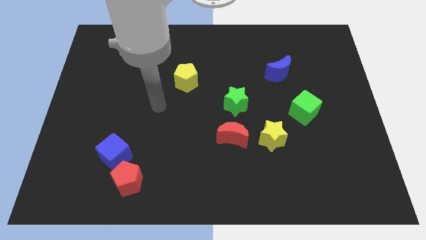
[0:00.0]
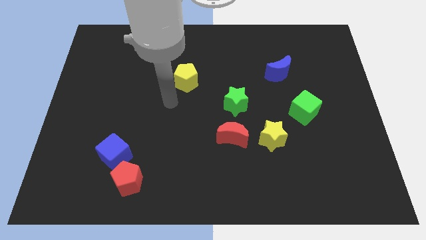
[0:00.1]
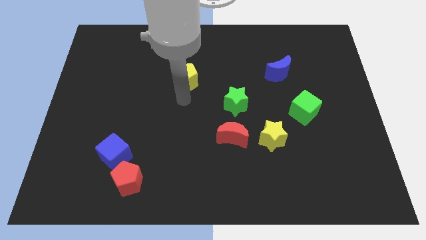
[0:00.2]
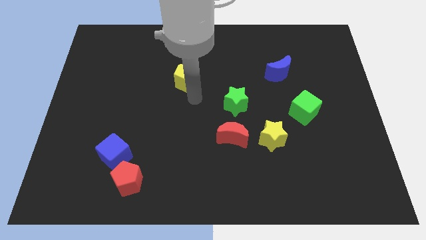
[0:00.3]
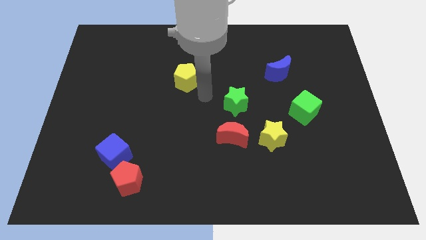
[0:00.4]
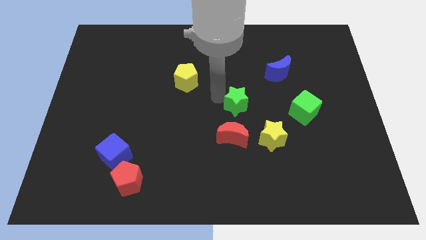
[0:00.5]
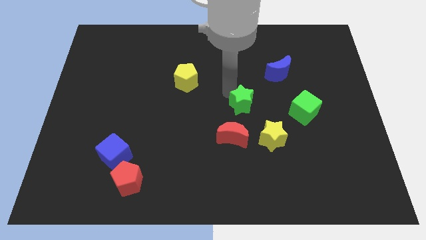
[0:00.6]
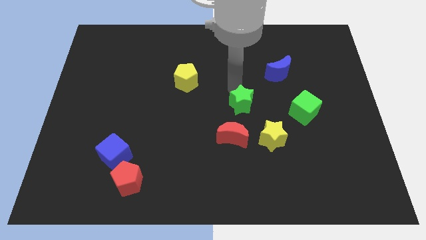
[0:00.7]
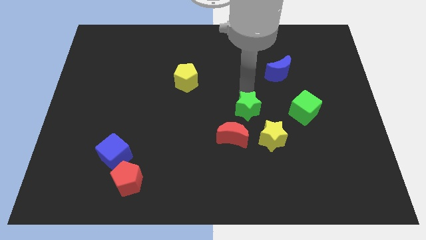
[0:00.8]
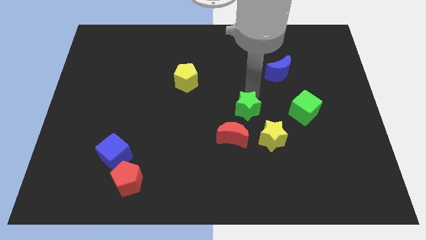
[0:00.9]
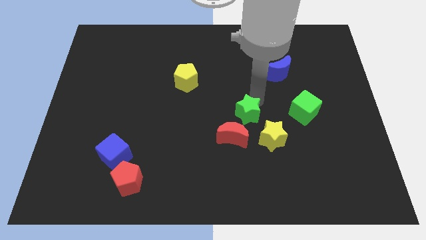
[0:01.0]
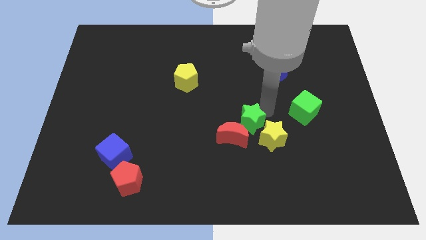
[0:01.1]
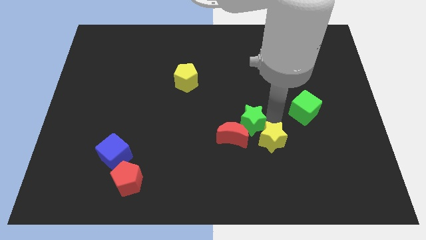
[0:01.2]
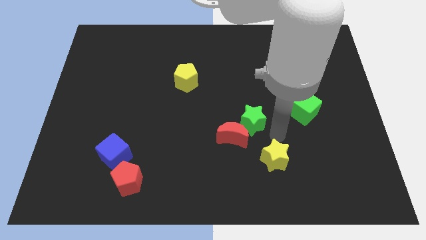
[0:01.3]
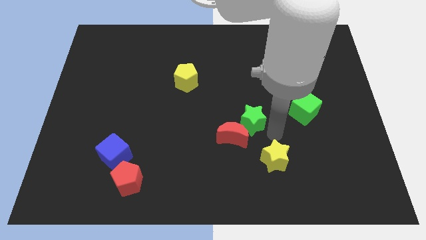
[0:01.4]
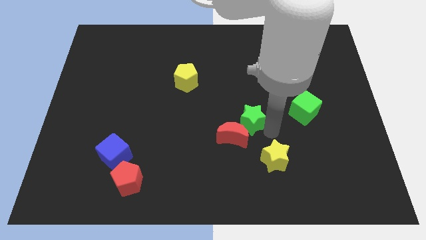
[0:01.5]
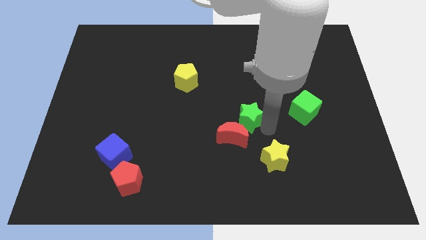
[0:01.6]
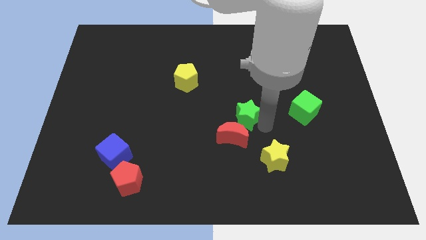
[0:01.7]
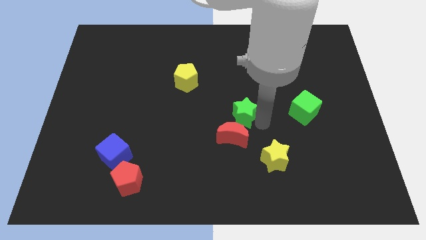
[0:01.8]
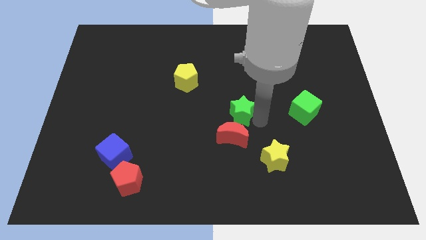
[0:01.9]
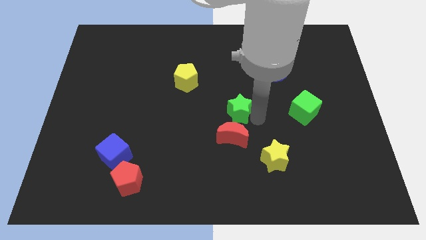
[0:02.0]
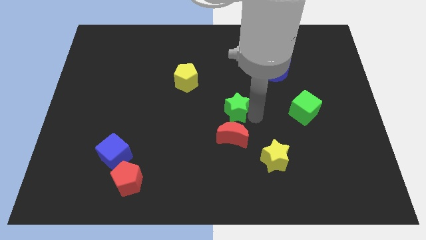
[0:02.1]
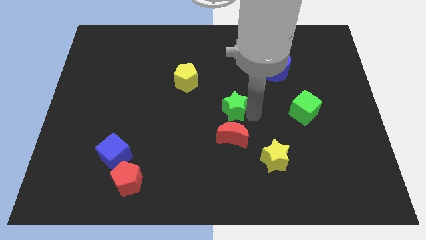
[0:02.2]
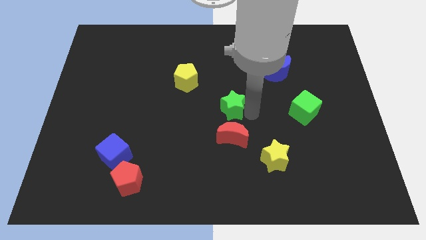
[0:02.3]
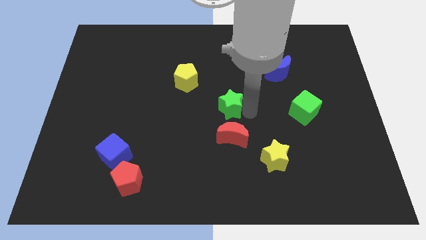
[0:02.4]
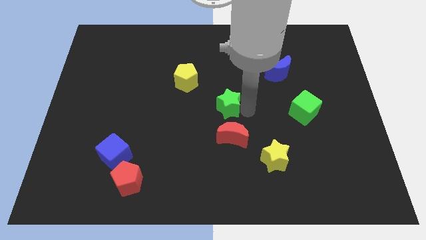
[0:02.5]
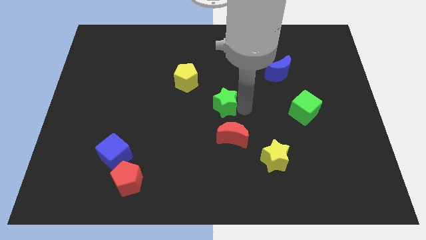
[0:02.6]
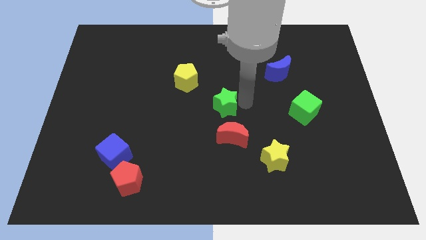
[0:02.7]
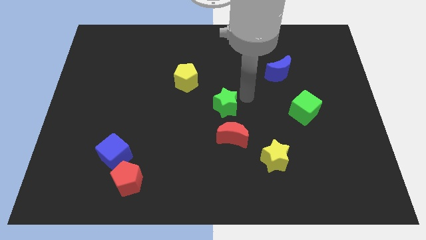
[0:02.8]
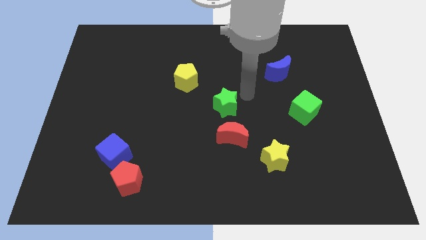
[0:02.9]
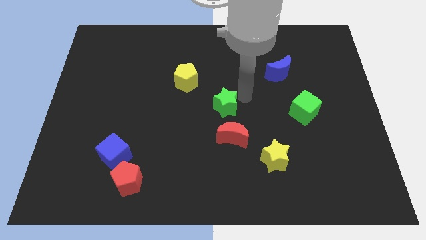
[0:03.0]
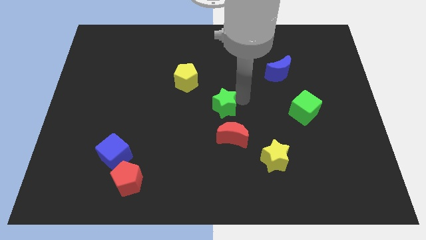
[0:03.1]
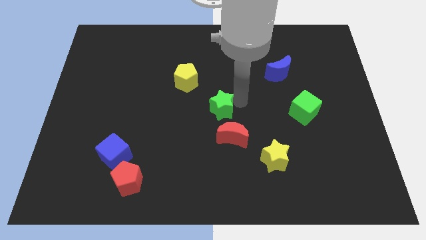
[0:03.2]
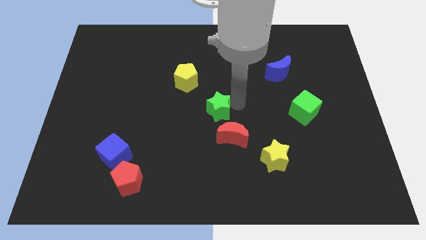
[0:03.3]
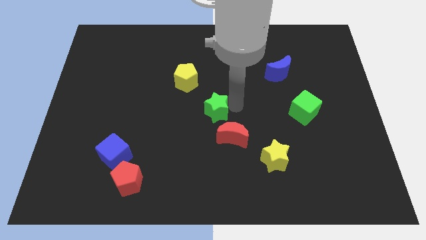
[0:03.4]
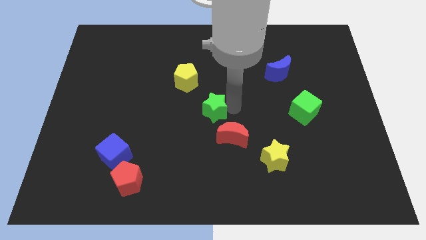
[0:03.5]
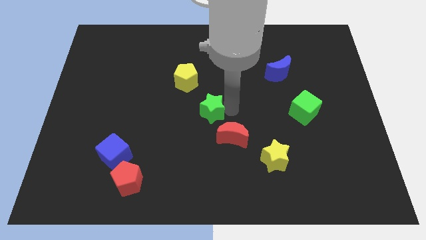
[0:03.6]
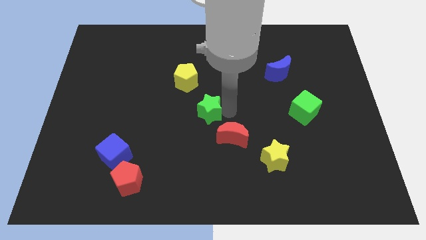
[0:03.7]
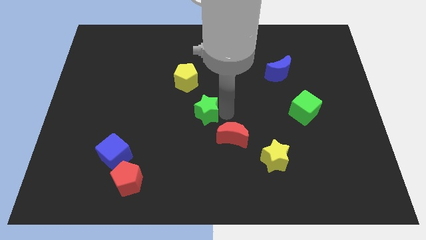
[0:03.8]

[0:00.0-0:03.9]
push the green star downwards and to the left diagonally slightly

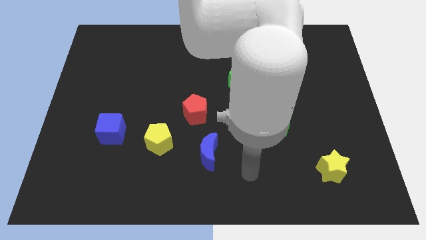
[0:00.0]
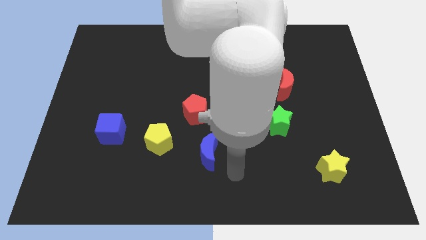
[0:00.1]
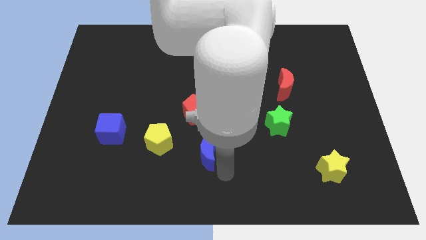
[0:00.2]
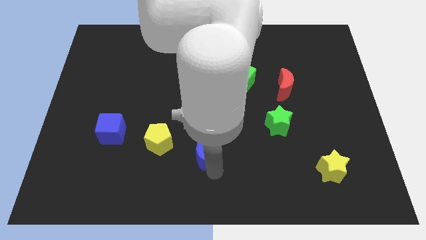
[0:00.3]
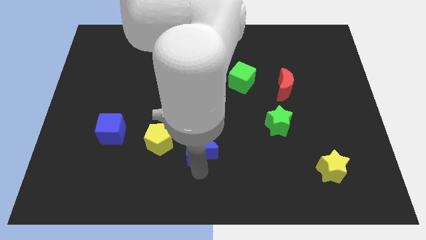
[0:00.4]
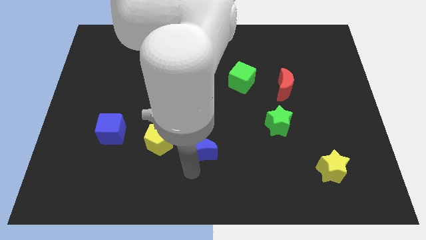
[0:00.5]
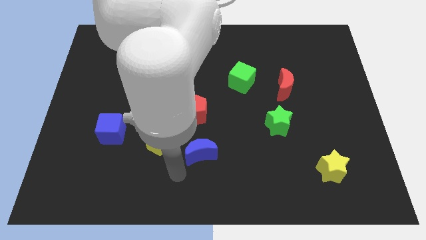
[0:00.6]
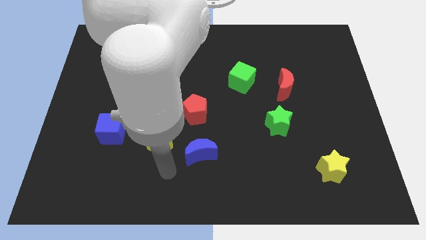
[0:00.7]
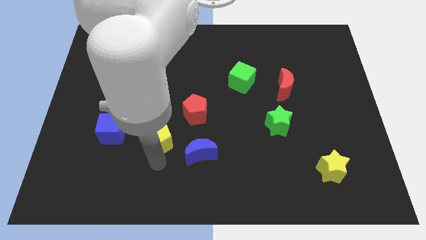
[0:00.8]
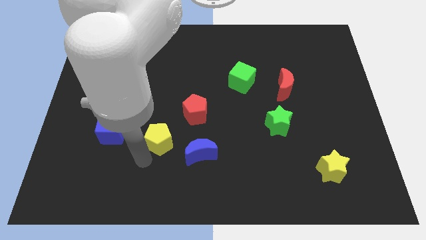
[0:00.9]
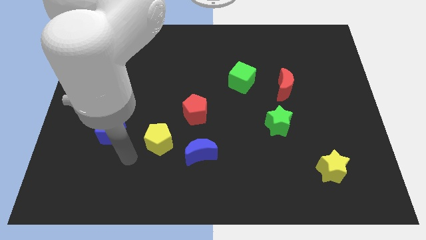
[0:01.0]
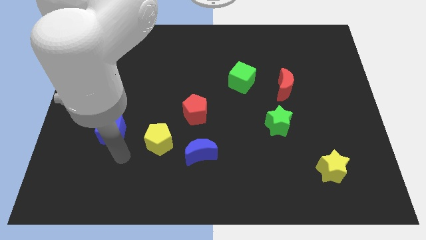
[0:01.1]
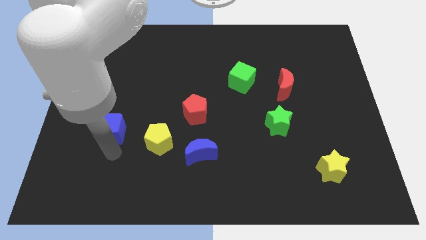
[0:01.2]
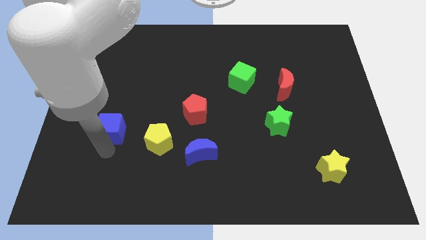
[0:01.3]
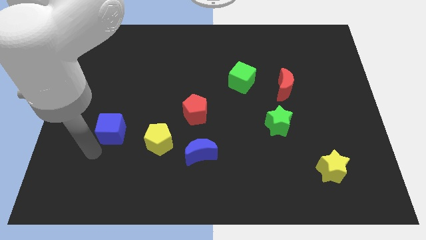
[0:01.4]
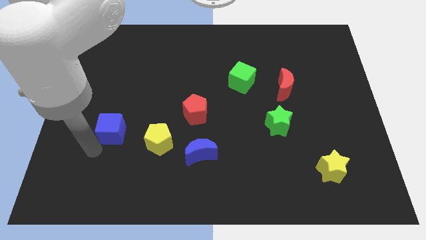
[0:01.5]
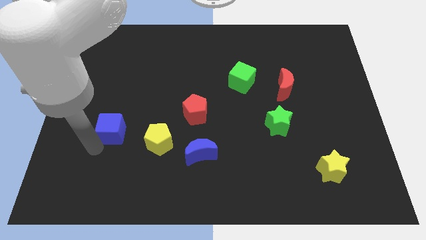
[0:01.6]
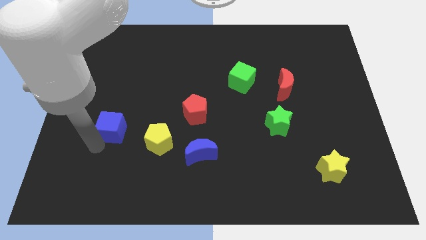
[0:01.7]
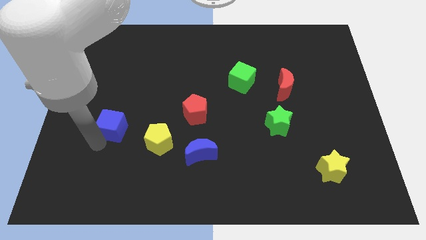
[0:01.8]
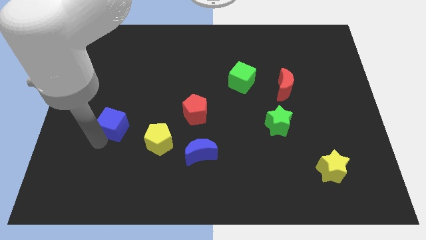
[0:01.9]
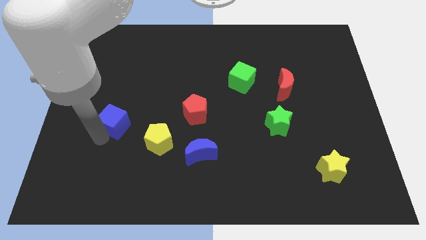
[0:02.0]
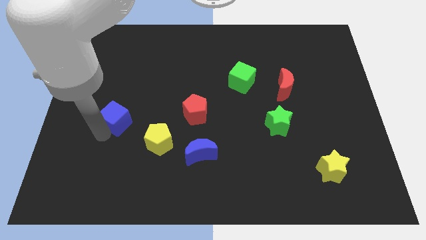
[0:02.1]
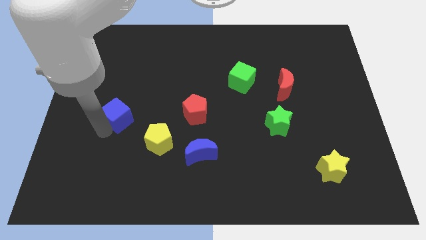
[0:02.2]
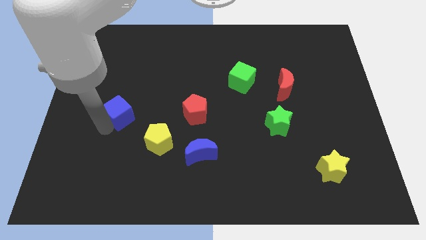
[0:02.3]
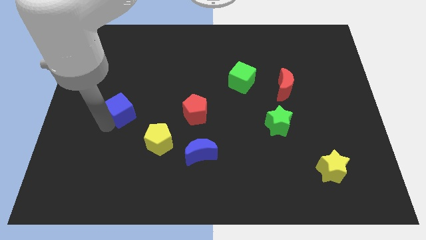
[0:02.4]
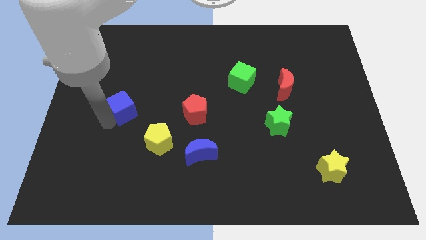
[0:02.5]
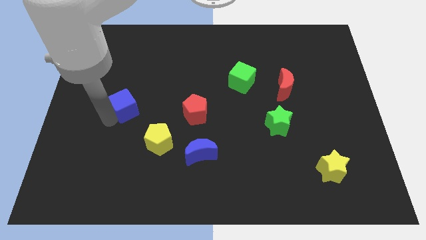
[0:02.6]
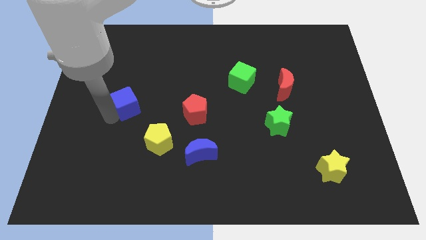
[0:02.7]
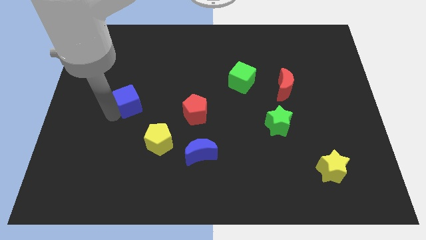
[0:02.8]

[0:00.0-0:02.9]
slightly push the blue cube up and right diagonally

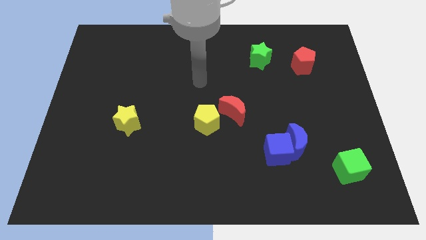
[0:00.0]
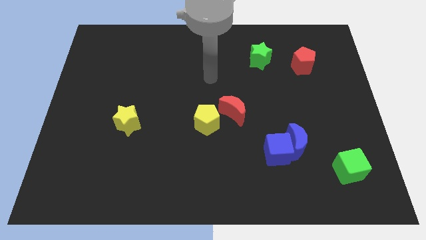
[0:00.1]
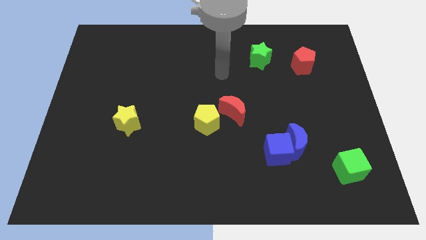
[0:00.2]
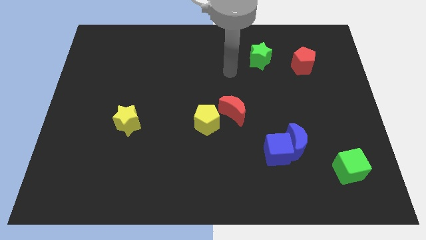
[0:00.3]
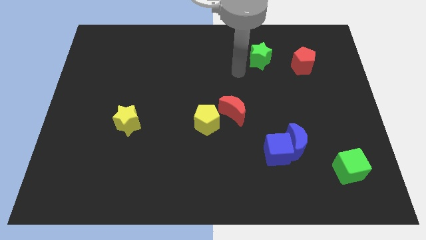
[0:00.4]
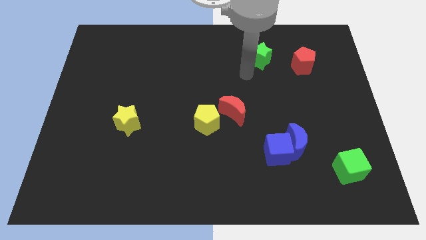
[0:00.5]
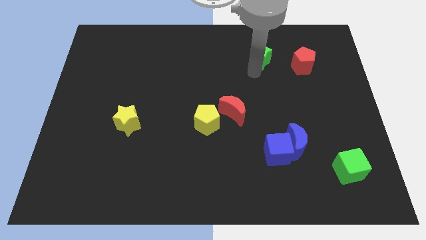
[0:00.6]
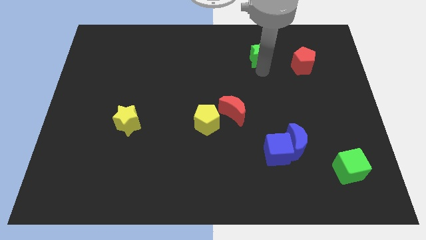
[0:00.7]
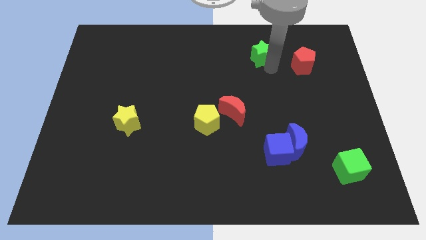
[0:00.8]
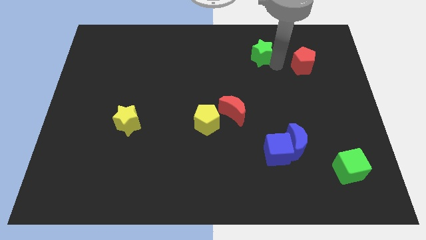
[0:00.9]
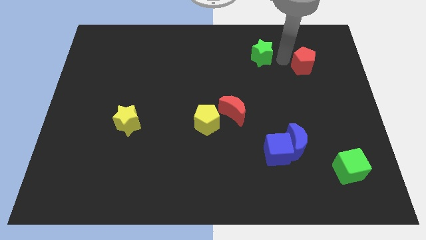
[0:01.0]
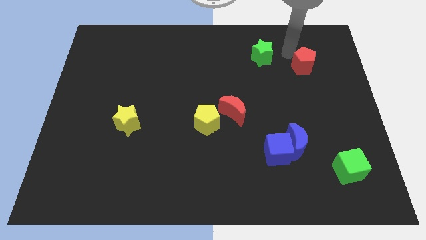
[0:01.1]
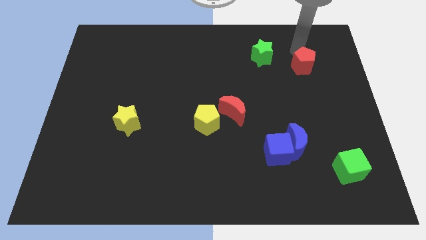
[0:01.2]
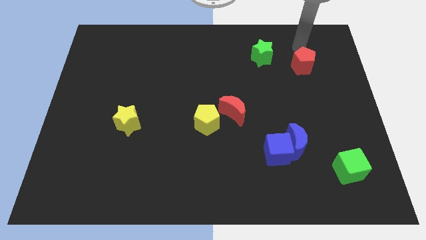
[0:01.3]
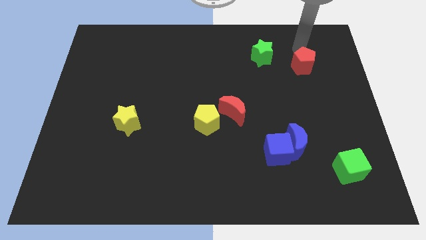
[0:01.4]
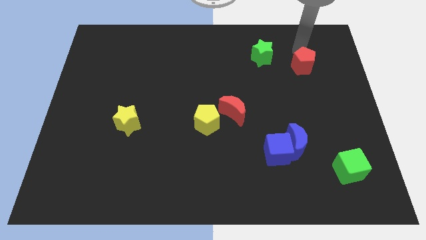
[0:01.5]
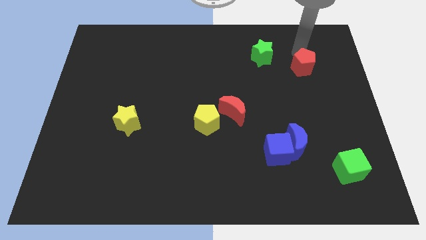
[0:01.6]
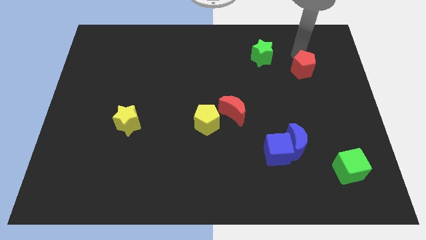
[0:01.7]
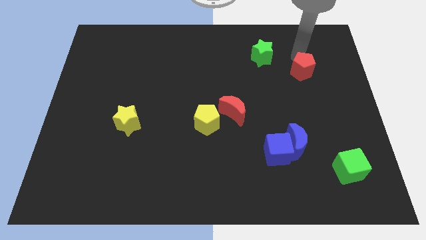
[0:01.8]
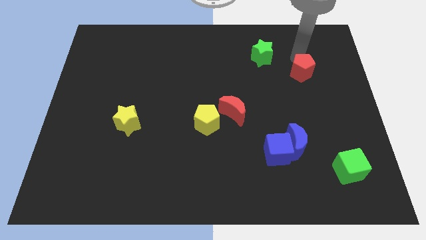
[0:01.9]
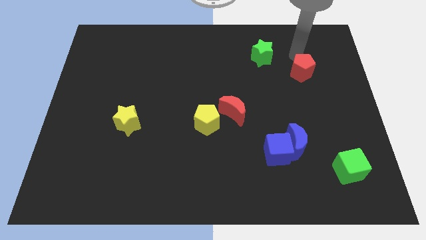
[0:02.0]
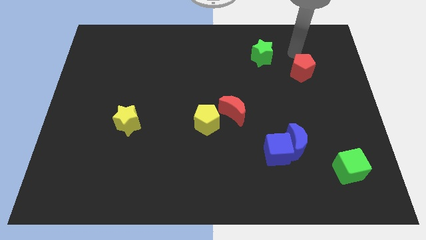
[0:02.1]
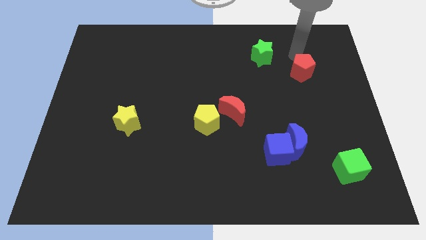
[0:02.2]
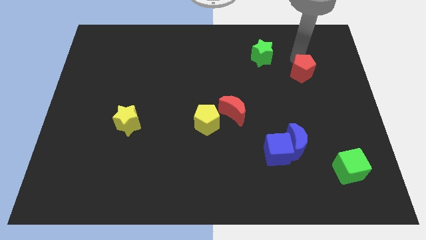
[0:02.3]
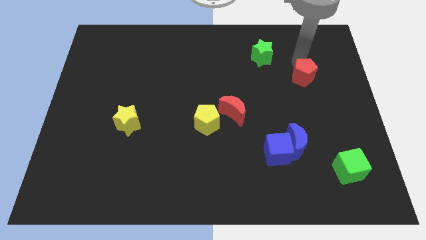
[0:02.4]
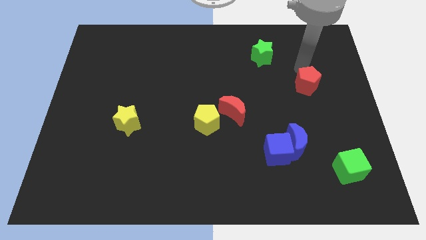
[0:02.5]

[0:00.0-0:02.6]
move the red pentagon a bit downwards
